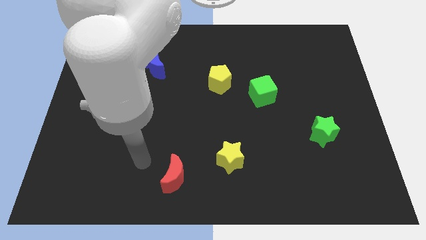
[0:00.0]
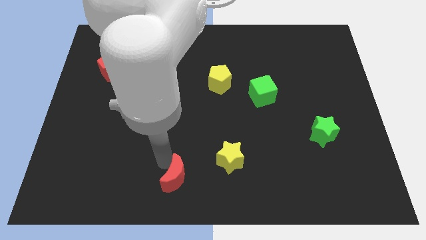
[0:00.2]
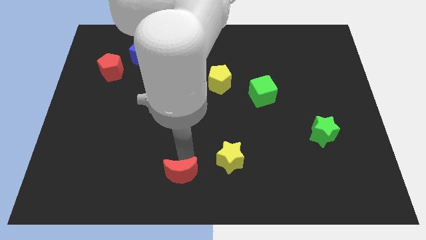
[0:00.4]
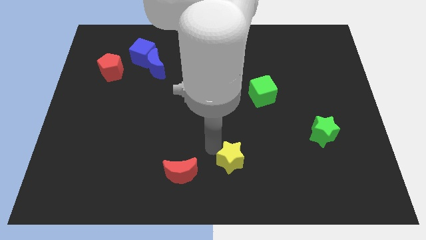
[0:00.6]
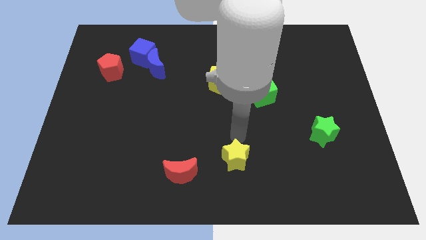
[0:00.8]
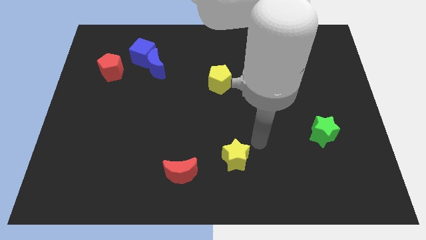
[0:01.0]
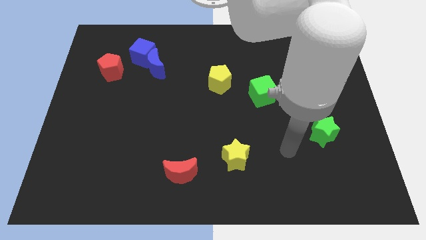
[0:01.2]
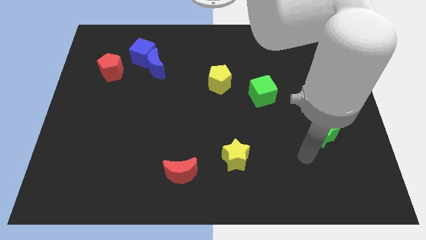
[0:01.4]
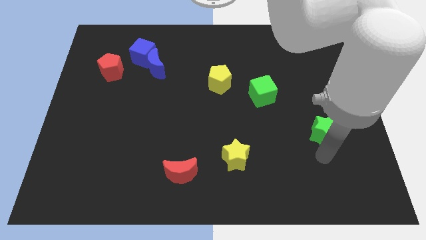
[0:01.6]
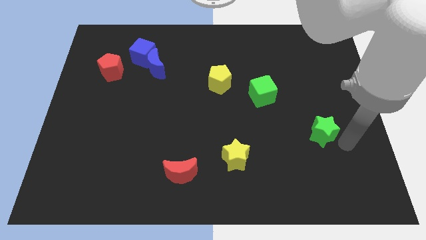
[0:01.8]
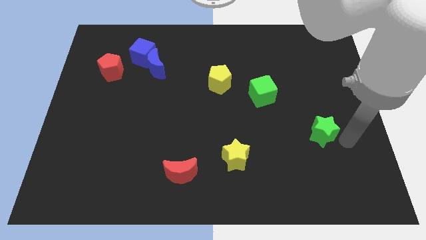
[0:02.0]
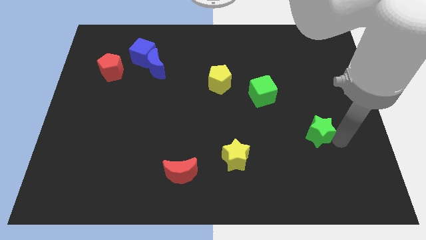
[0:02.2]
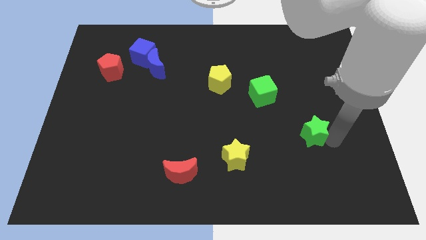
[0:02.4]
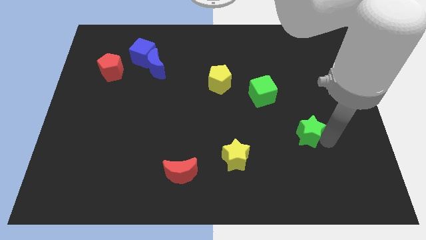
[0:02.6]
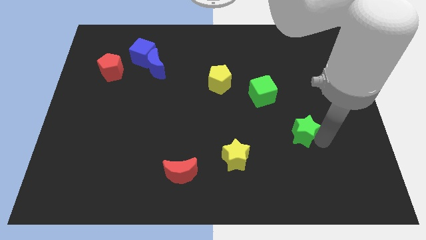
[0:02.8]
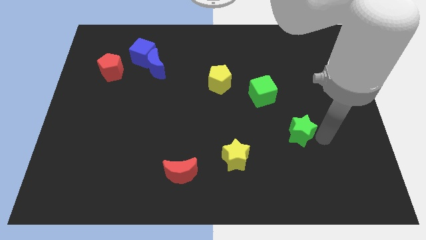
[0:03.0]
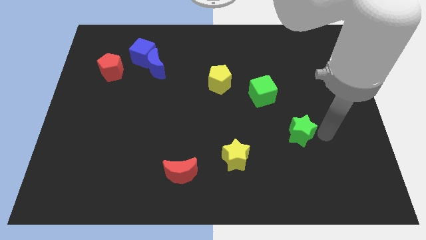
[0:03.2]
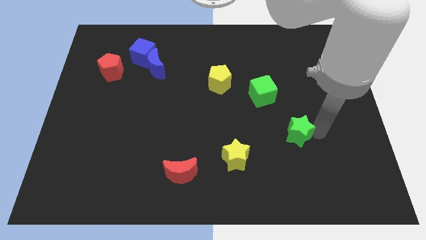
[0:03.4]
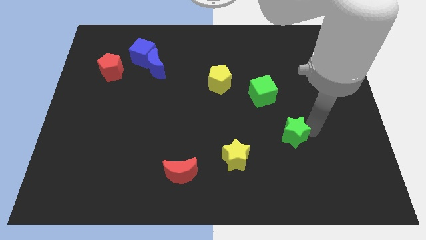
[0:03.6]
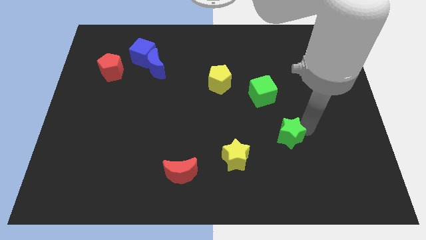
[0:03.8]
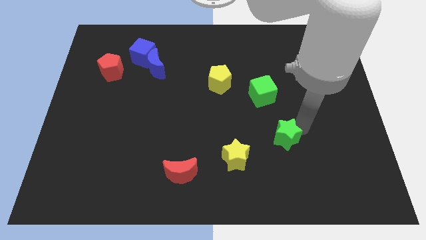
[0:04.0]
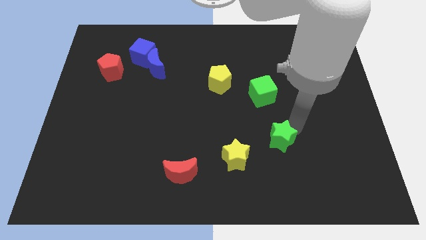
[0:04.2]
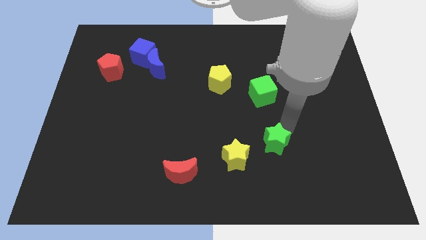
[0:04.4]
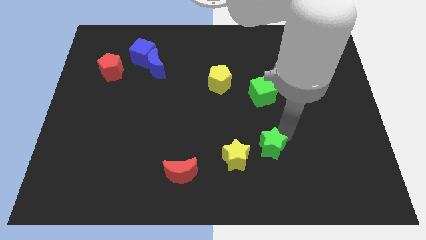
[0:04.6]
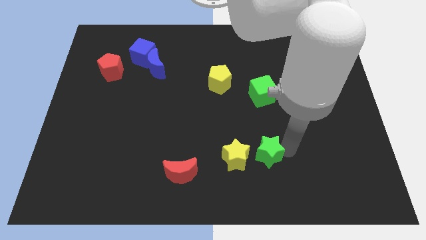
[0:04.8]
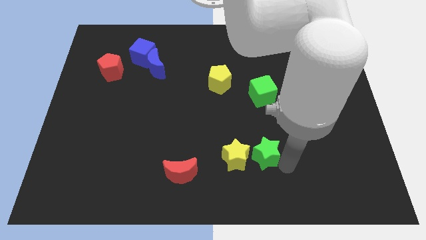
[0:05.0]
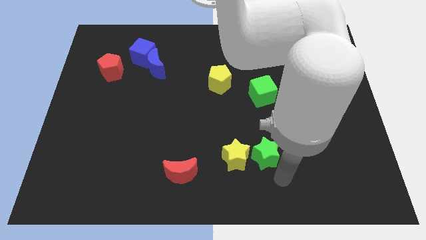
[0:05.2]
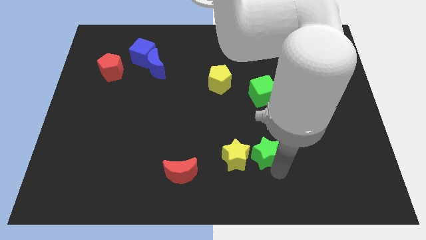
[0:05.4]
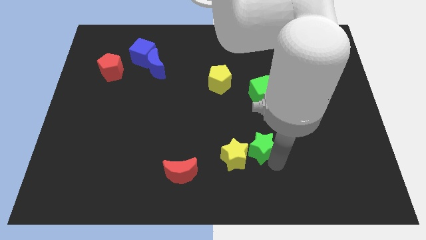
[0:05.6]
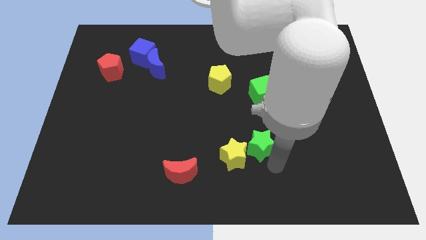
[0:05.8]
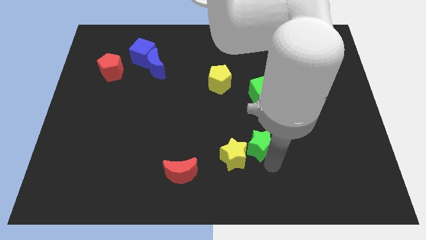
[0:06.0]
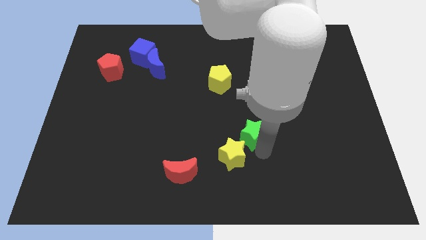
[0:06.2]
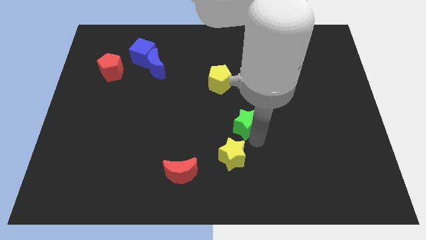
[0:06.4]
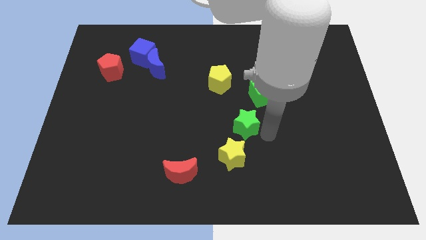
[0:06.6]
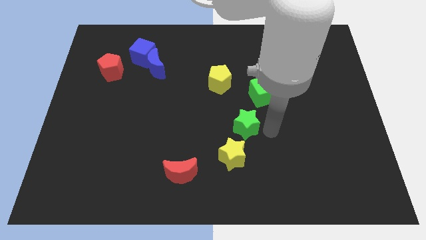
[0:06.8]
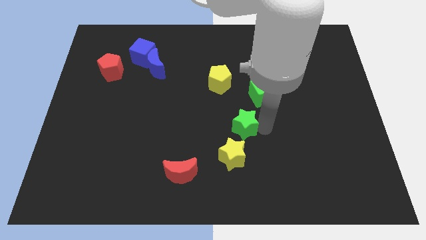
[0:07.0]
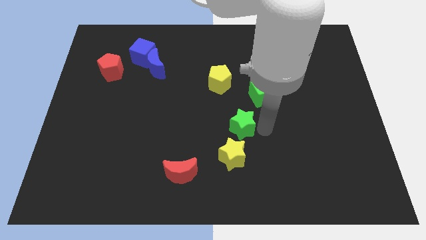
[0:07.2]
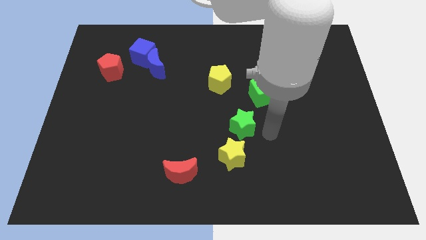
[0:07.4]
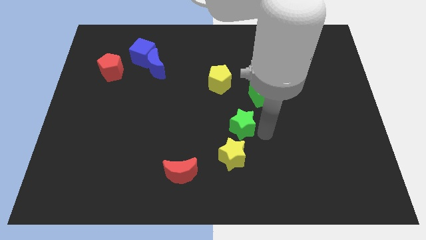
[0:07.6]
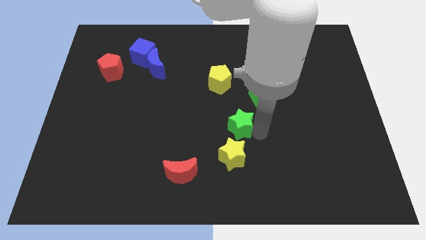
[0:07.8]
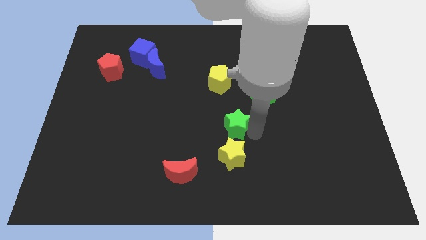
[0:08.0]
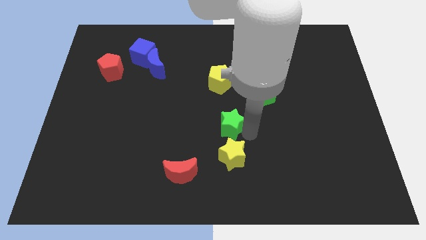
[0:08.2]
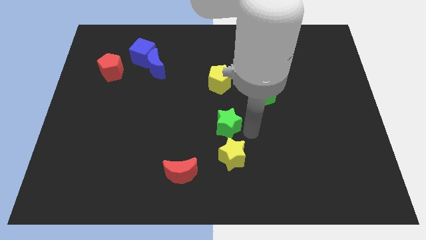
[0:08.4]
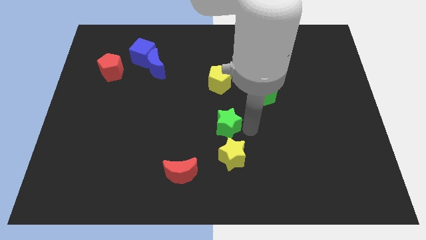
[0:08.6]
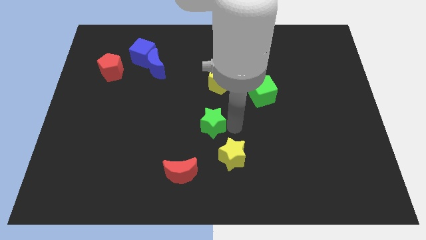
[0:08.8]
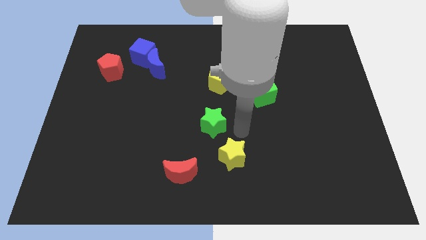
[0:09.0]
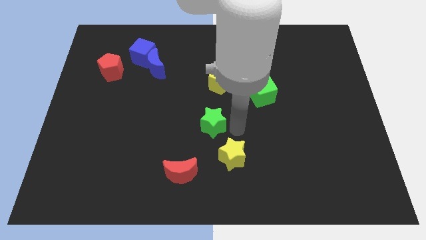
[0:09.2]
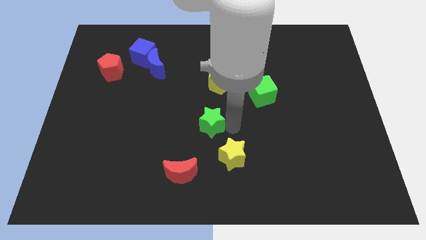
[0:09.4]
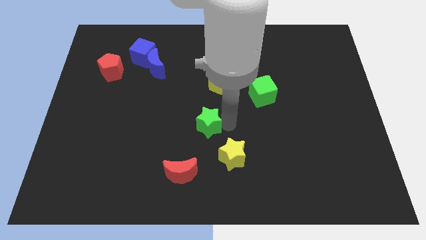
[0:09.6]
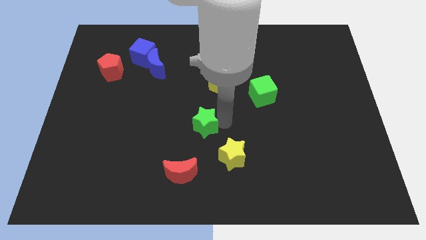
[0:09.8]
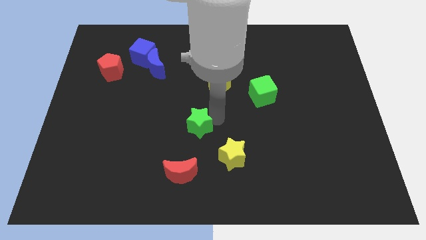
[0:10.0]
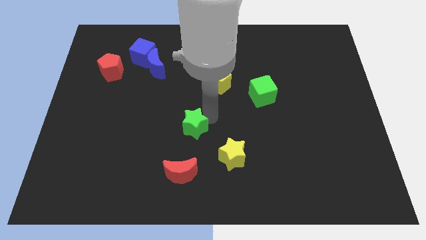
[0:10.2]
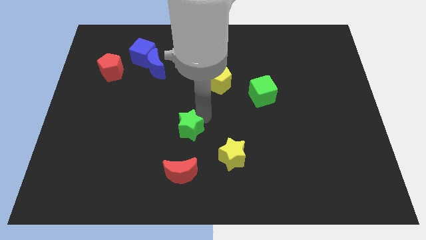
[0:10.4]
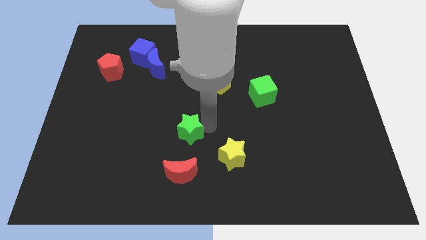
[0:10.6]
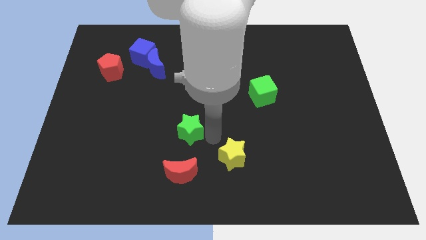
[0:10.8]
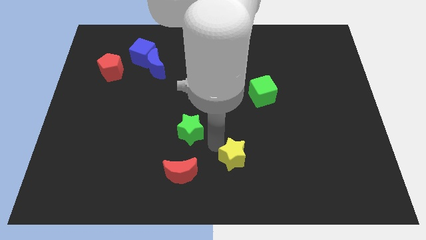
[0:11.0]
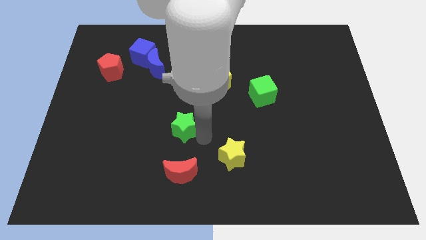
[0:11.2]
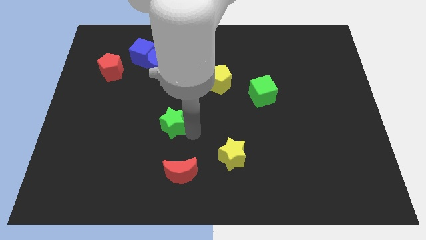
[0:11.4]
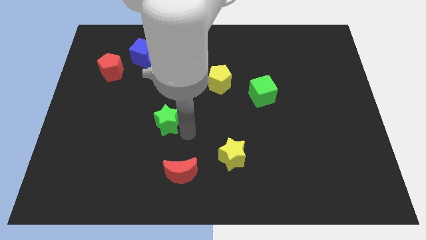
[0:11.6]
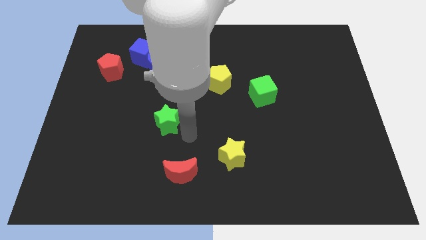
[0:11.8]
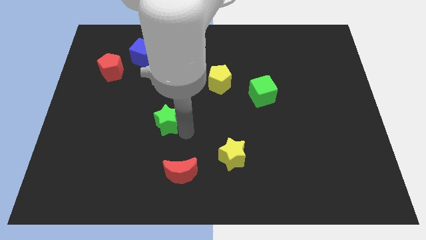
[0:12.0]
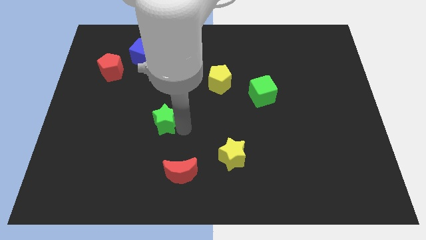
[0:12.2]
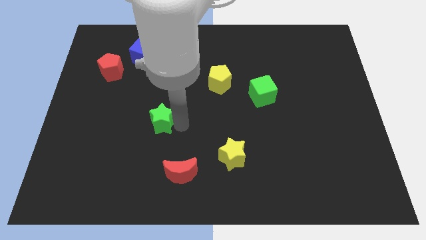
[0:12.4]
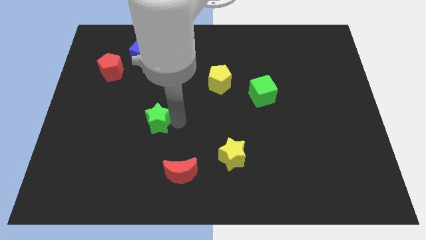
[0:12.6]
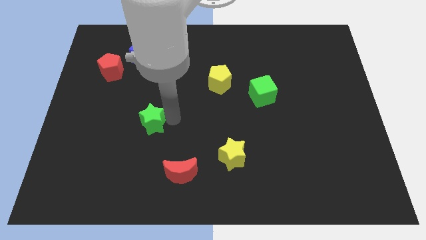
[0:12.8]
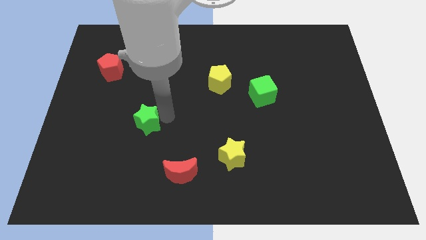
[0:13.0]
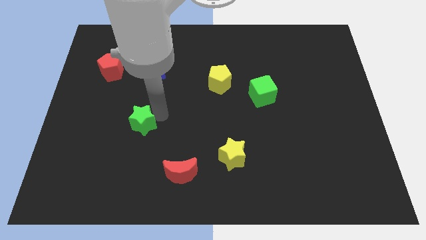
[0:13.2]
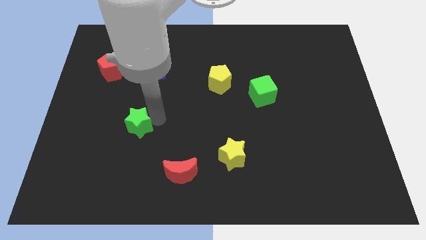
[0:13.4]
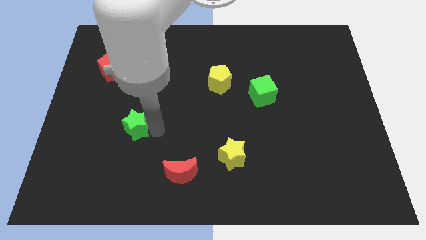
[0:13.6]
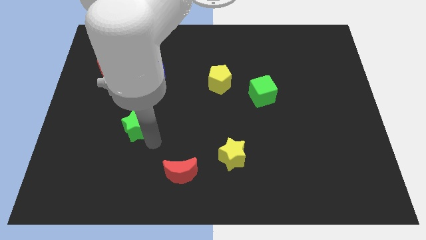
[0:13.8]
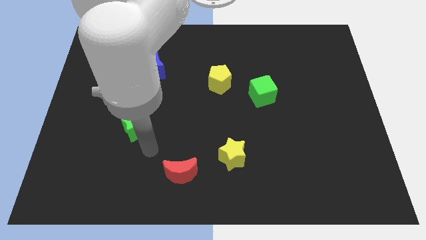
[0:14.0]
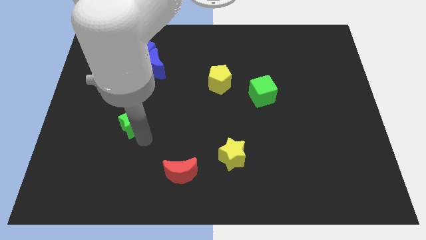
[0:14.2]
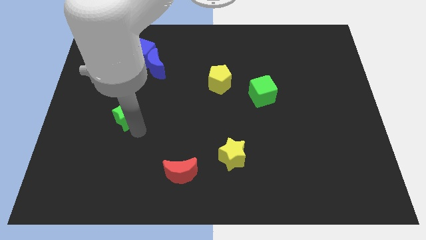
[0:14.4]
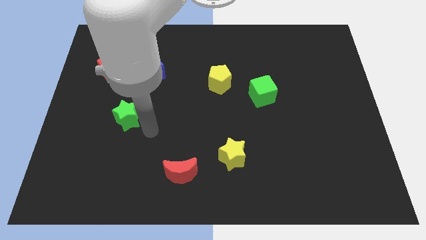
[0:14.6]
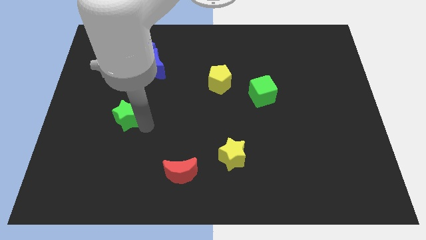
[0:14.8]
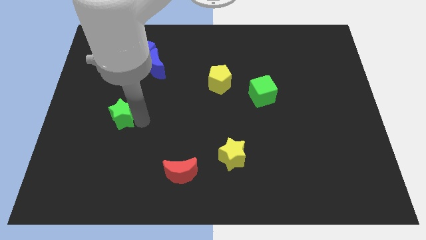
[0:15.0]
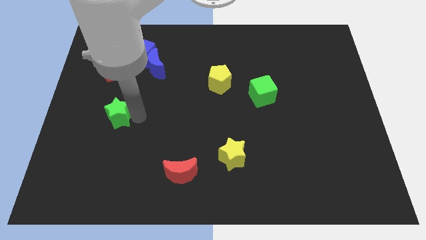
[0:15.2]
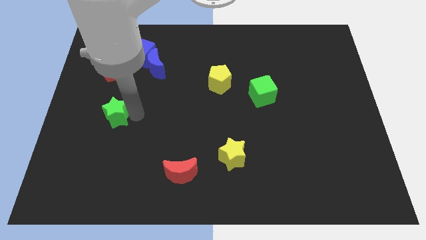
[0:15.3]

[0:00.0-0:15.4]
slide the green star to the bottom side of the red pentagon
